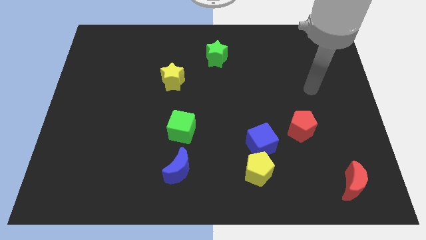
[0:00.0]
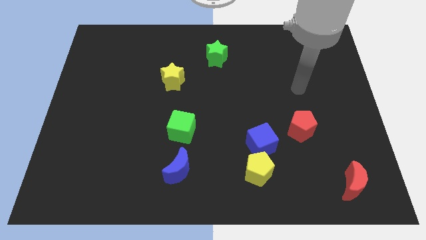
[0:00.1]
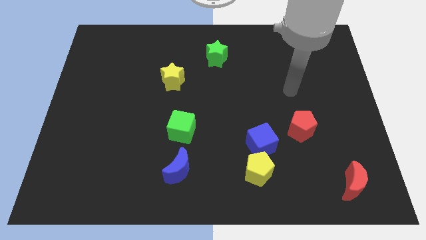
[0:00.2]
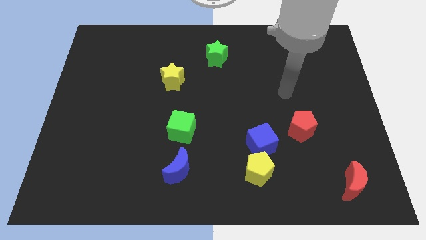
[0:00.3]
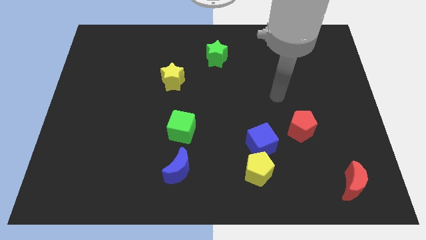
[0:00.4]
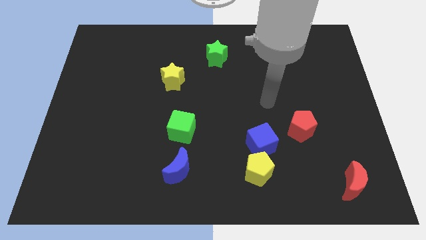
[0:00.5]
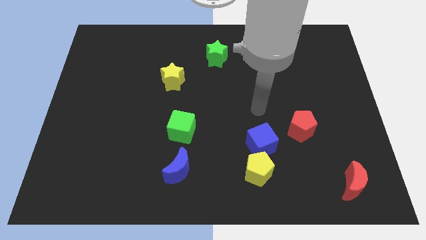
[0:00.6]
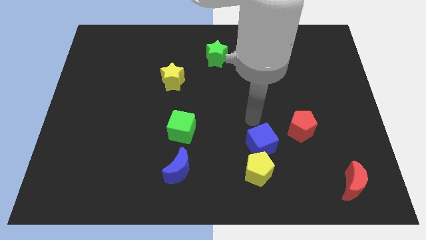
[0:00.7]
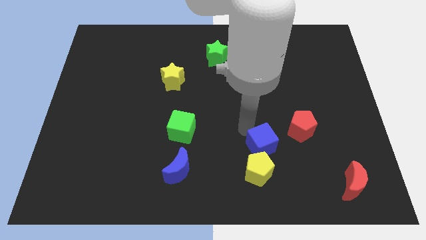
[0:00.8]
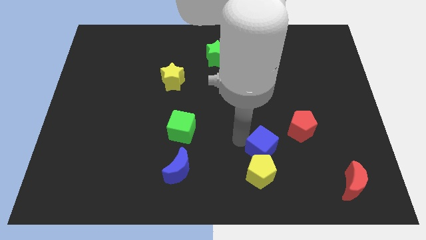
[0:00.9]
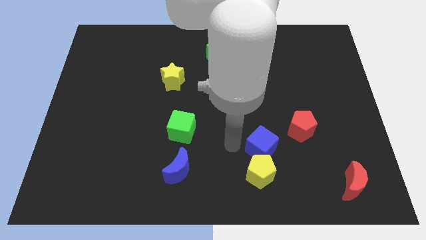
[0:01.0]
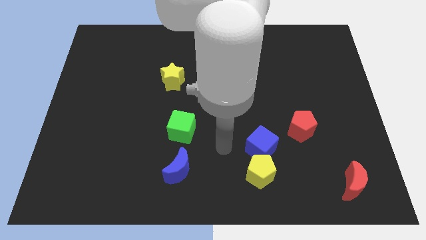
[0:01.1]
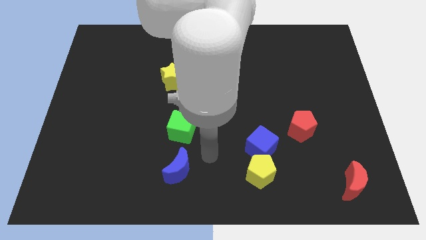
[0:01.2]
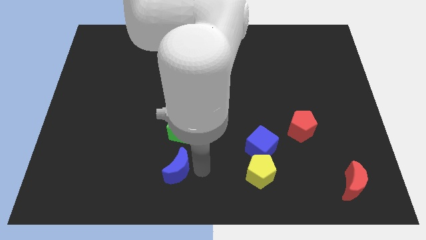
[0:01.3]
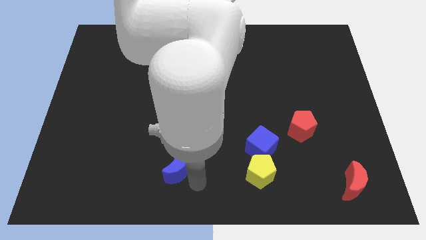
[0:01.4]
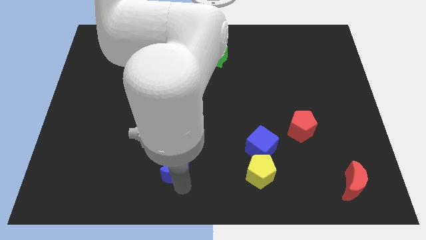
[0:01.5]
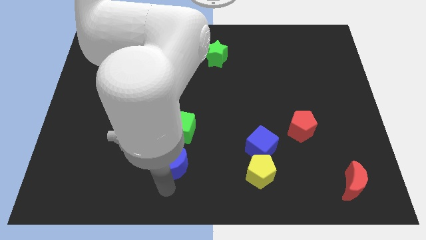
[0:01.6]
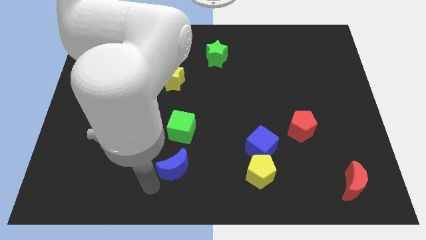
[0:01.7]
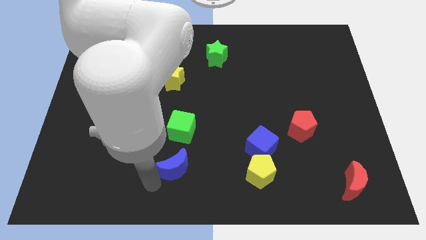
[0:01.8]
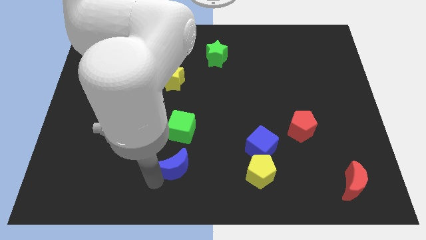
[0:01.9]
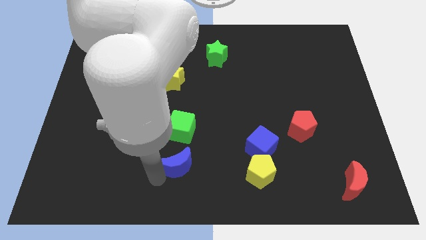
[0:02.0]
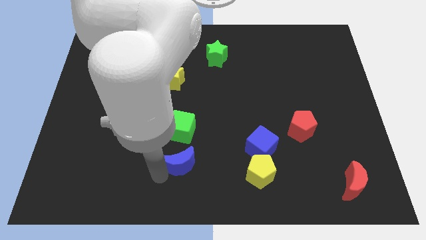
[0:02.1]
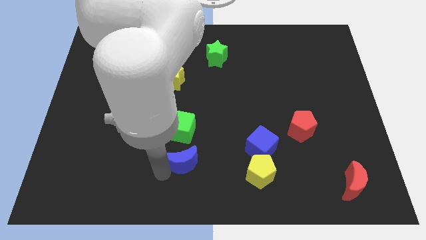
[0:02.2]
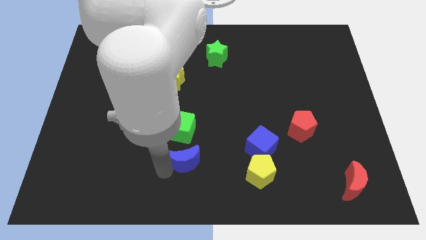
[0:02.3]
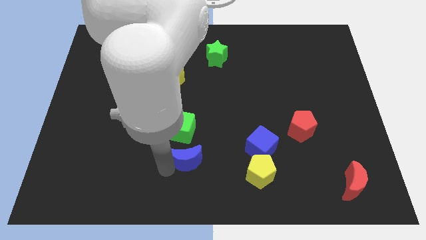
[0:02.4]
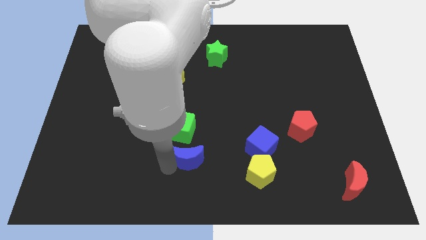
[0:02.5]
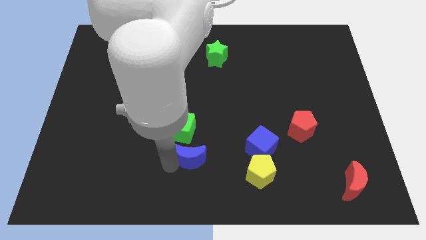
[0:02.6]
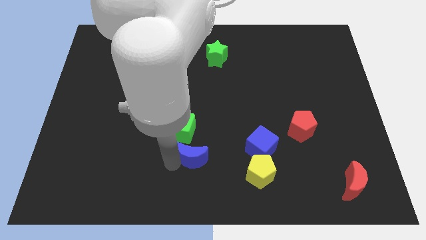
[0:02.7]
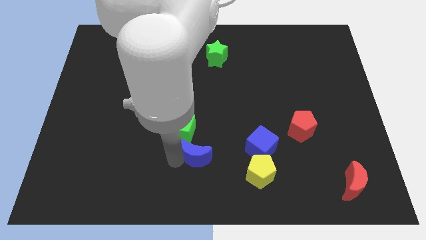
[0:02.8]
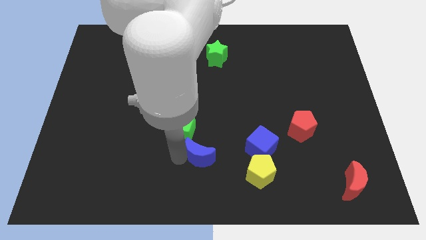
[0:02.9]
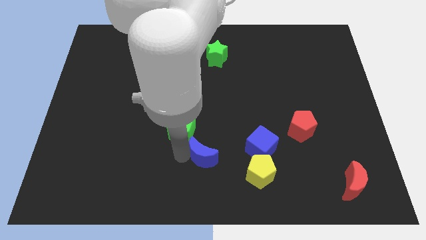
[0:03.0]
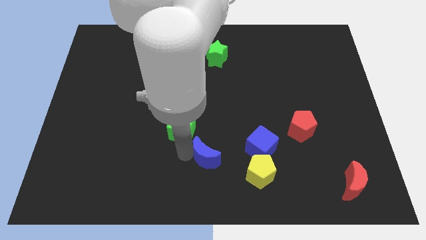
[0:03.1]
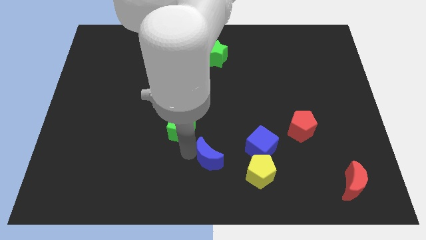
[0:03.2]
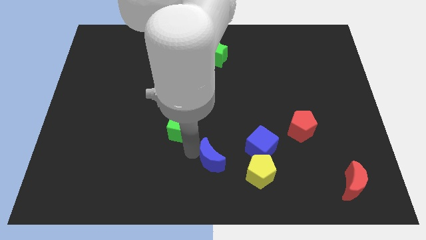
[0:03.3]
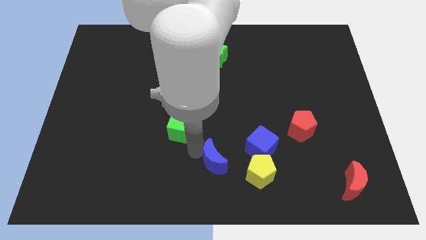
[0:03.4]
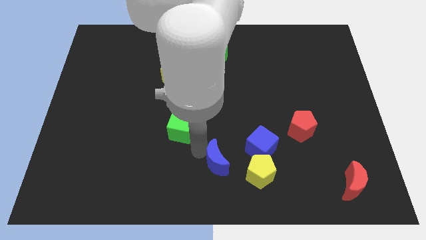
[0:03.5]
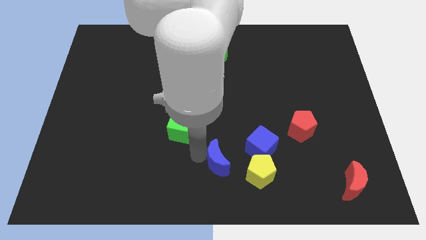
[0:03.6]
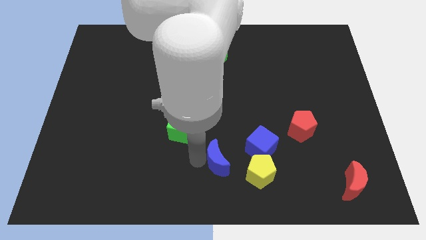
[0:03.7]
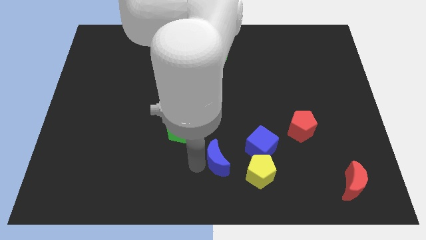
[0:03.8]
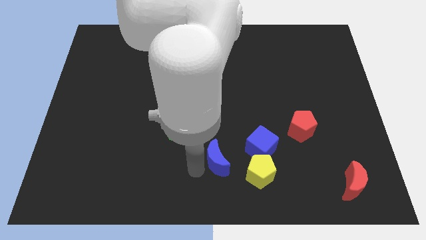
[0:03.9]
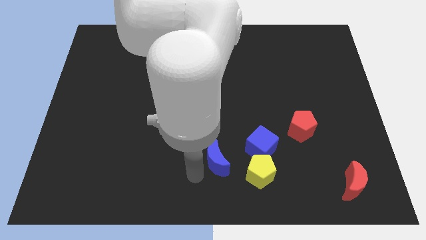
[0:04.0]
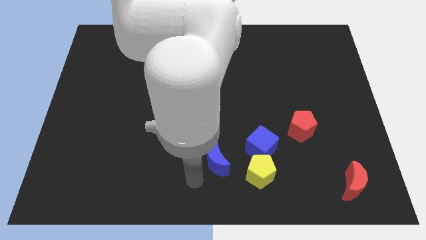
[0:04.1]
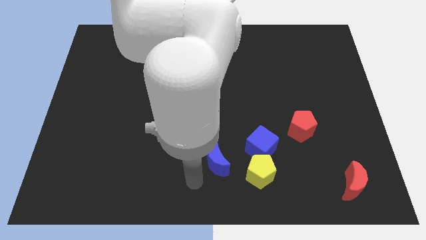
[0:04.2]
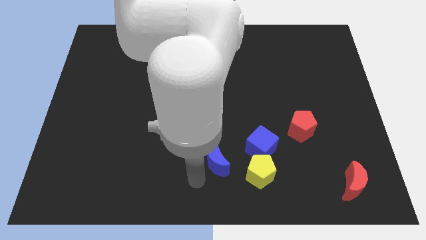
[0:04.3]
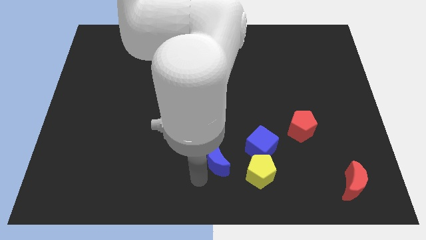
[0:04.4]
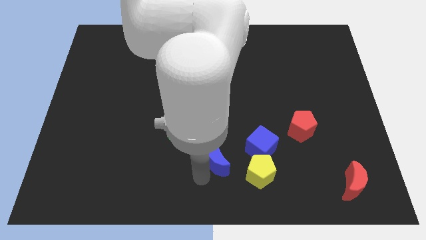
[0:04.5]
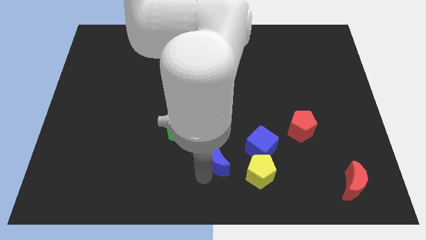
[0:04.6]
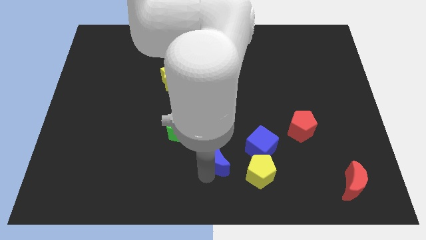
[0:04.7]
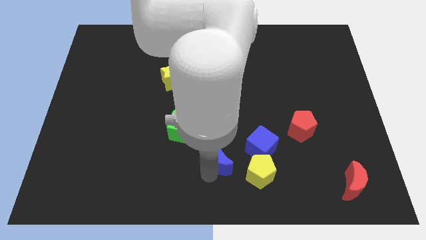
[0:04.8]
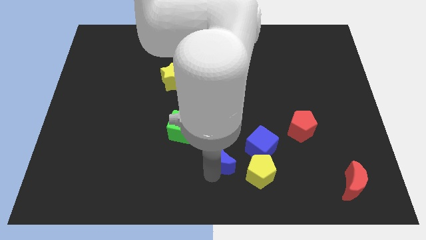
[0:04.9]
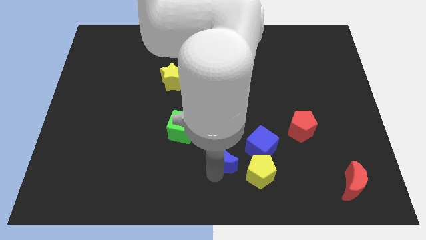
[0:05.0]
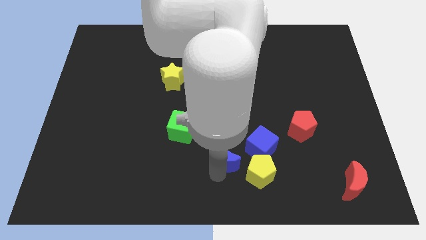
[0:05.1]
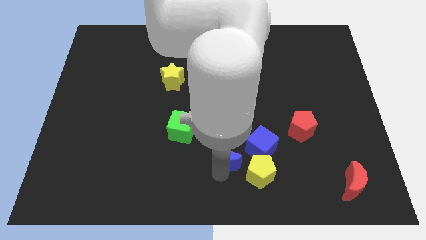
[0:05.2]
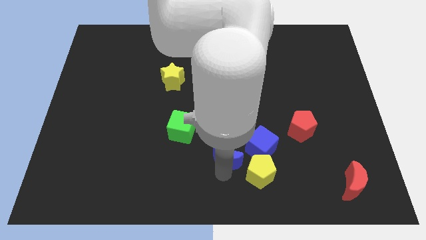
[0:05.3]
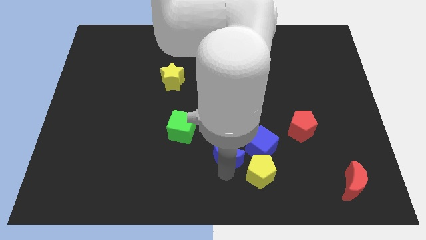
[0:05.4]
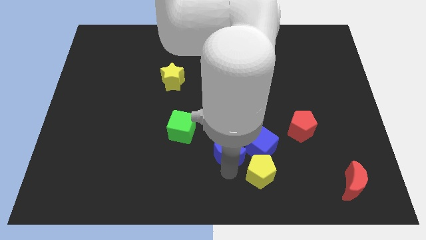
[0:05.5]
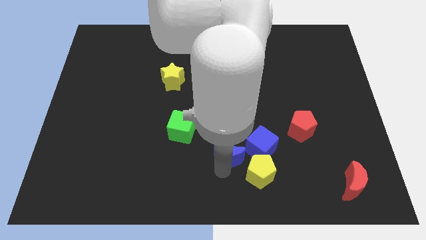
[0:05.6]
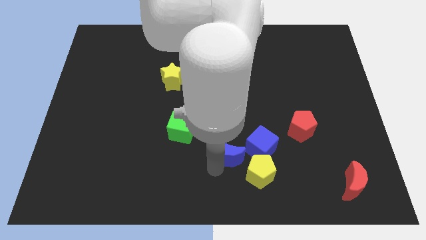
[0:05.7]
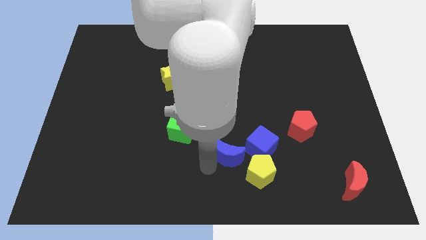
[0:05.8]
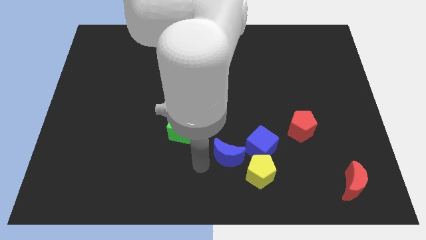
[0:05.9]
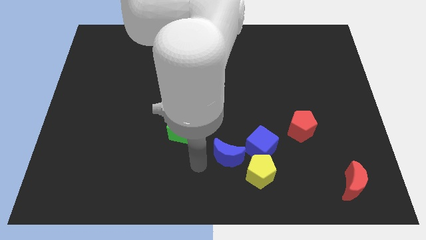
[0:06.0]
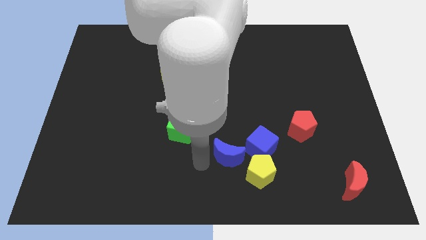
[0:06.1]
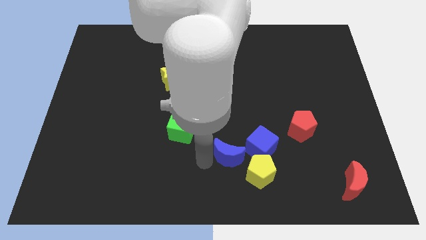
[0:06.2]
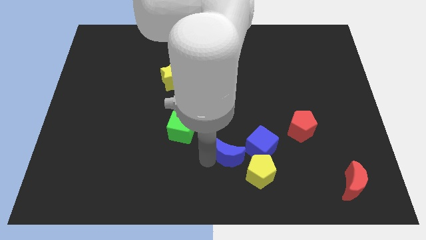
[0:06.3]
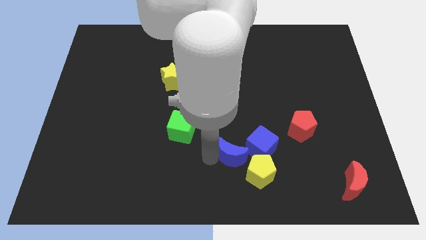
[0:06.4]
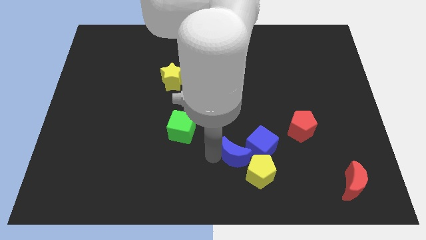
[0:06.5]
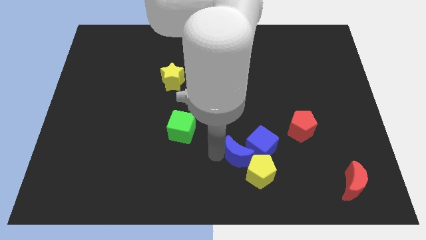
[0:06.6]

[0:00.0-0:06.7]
push the blue moon to the blue cube
